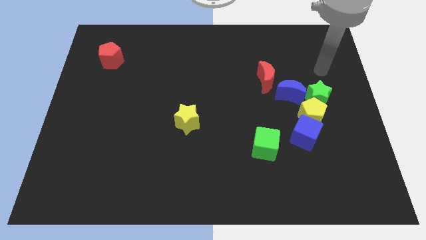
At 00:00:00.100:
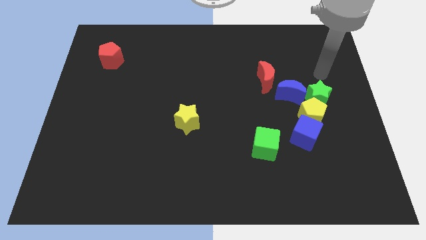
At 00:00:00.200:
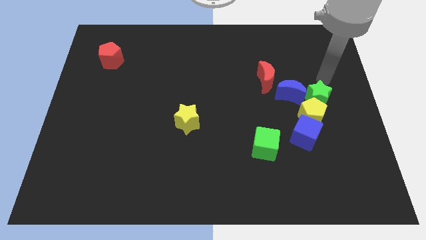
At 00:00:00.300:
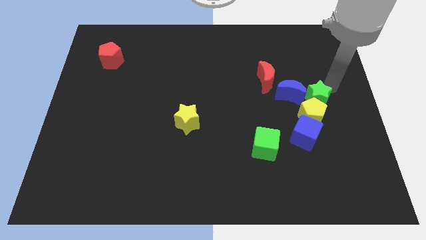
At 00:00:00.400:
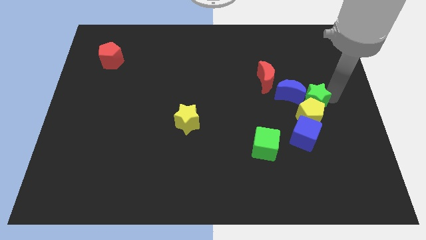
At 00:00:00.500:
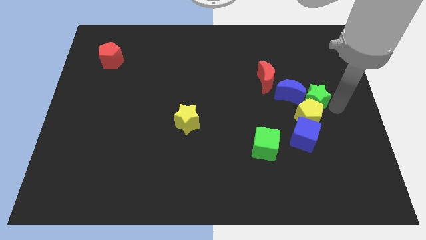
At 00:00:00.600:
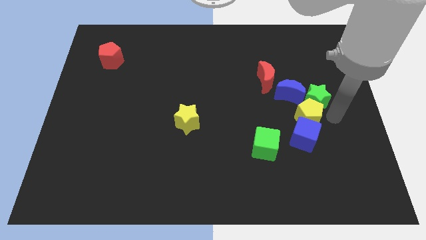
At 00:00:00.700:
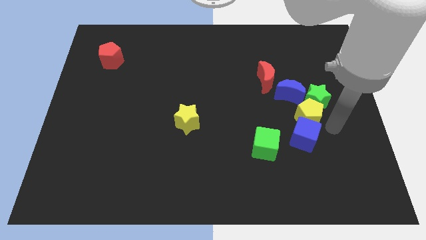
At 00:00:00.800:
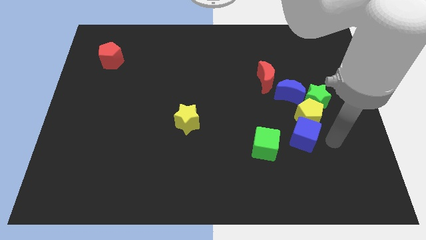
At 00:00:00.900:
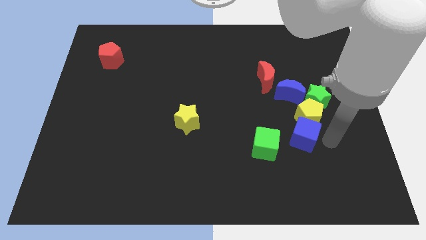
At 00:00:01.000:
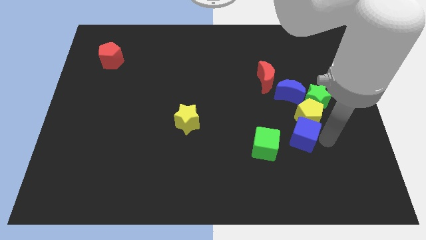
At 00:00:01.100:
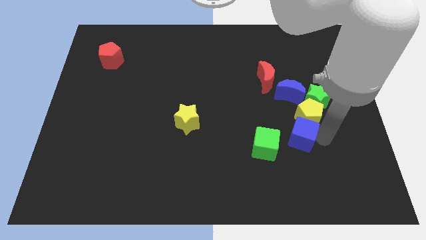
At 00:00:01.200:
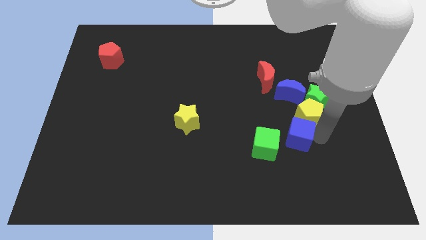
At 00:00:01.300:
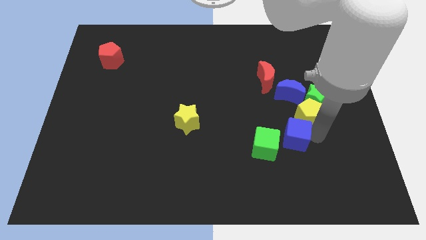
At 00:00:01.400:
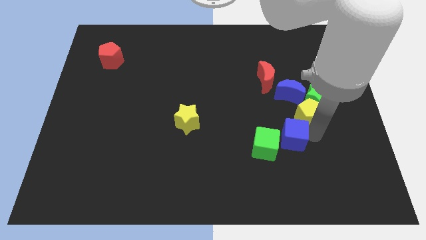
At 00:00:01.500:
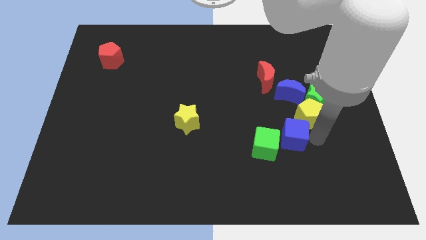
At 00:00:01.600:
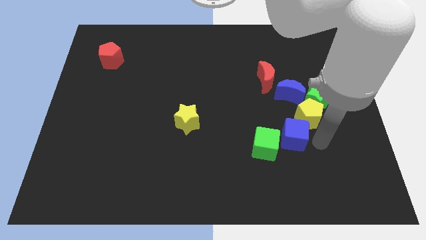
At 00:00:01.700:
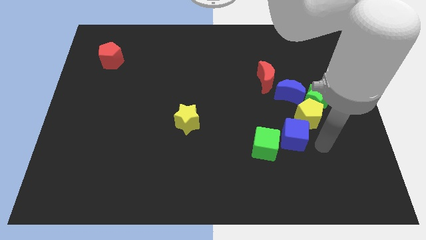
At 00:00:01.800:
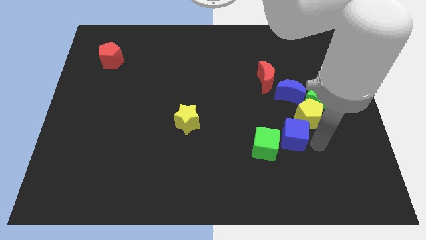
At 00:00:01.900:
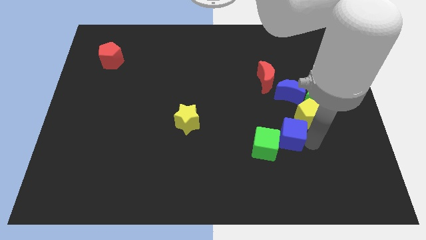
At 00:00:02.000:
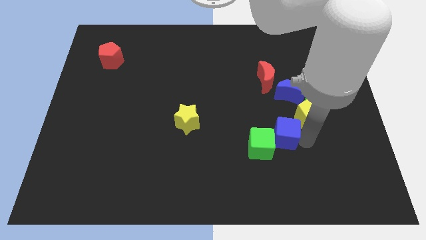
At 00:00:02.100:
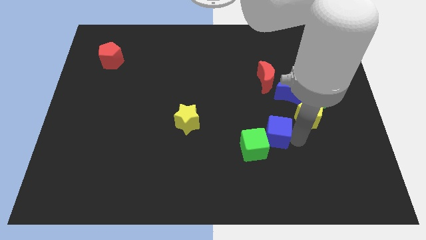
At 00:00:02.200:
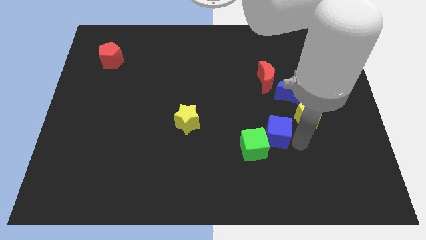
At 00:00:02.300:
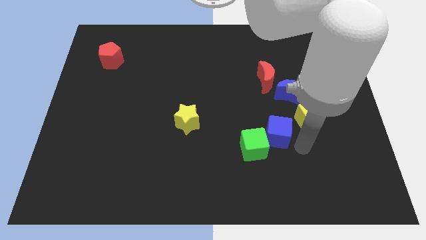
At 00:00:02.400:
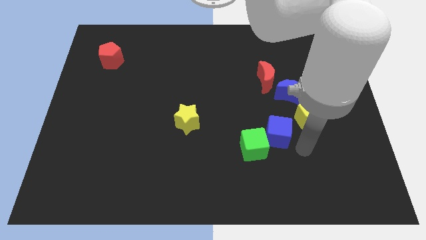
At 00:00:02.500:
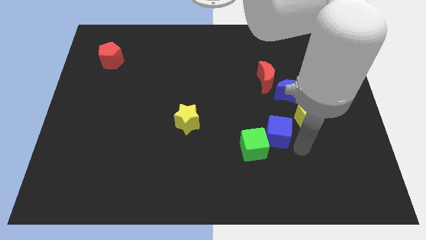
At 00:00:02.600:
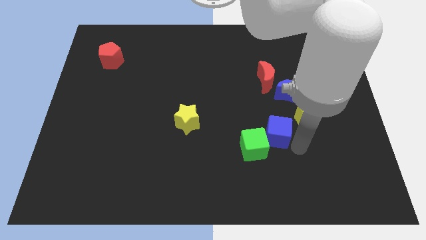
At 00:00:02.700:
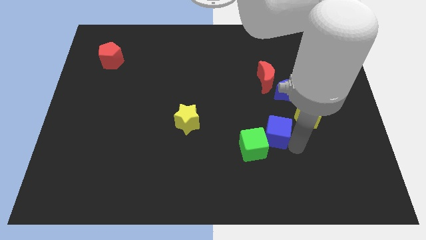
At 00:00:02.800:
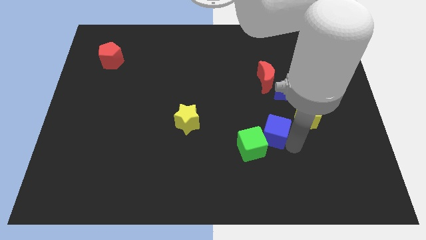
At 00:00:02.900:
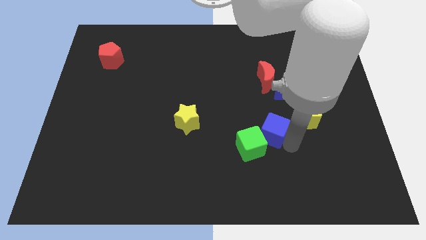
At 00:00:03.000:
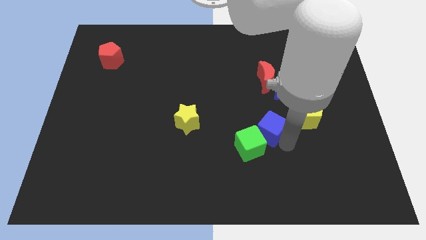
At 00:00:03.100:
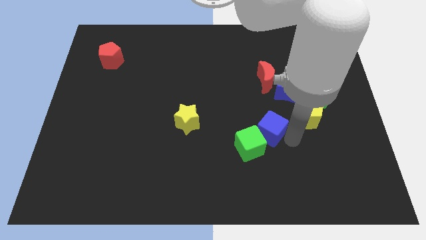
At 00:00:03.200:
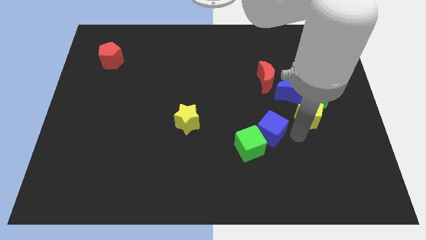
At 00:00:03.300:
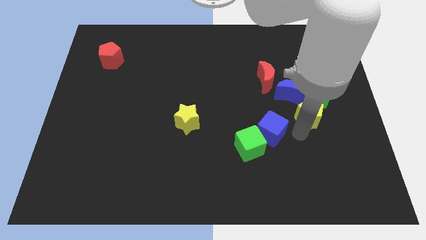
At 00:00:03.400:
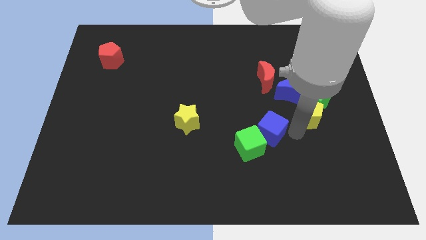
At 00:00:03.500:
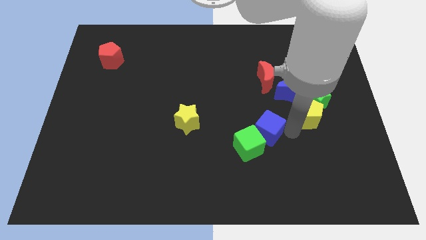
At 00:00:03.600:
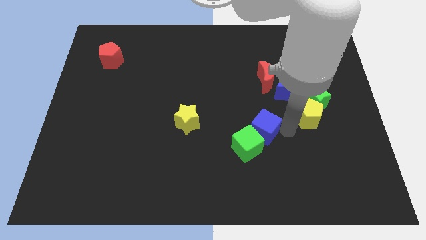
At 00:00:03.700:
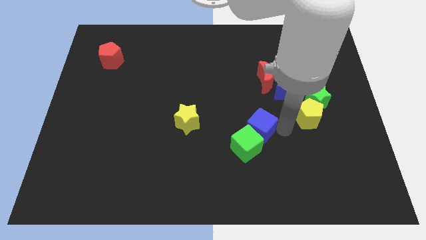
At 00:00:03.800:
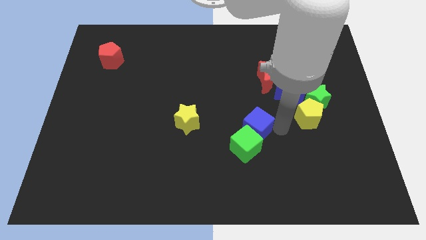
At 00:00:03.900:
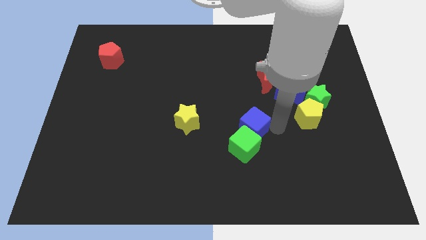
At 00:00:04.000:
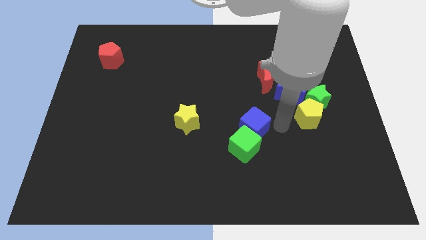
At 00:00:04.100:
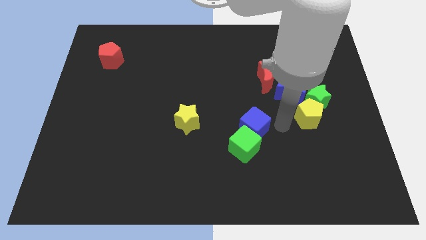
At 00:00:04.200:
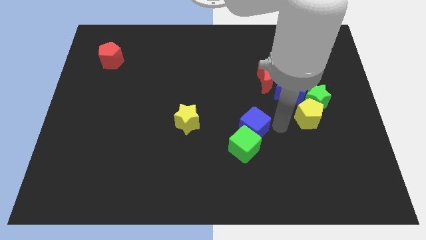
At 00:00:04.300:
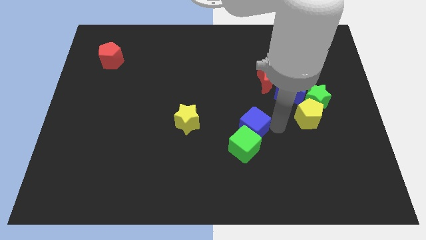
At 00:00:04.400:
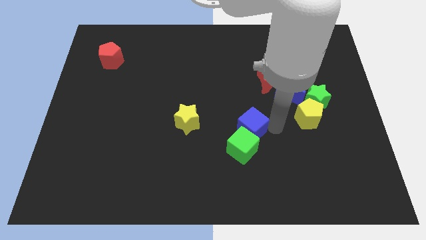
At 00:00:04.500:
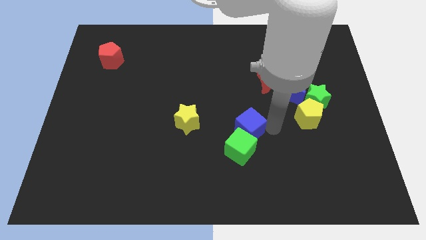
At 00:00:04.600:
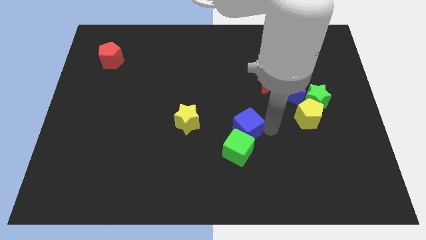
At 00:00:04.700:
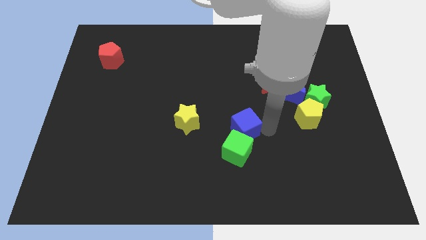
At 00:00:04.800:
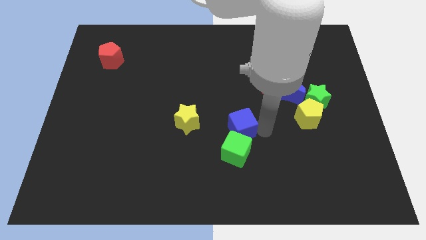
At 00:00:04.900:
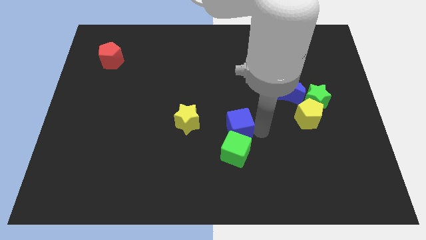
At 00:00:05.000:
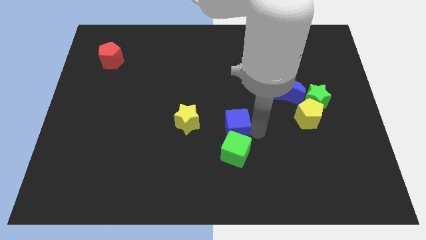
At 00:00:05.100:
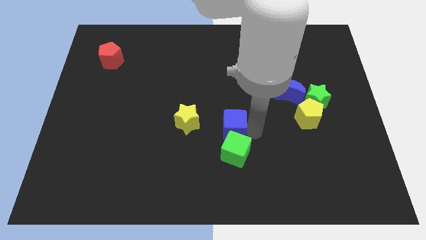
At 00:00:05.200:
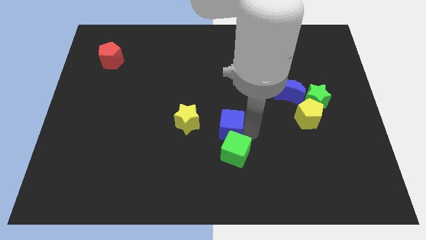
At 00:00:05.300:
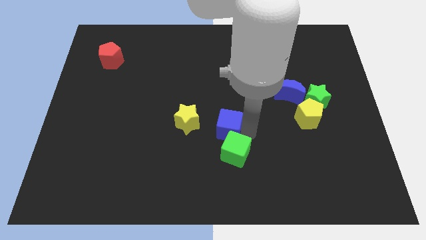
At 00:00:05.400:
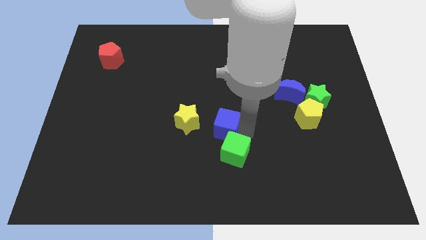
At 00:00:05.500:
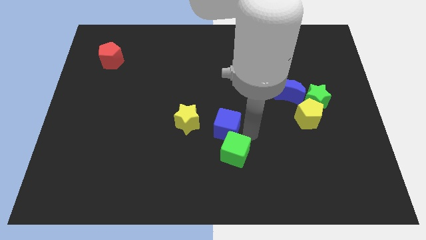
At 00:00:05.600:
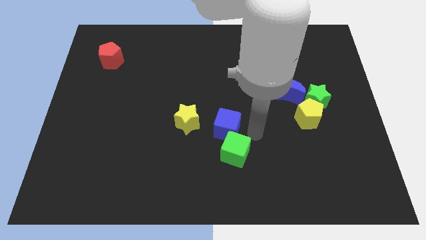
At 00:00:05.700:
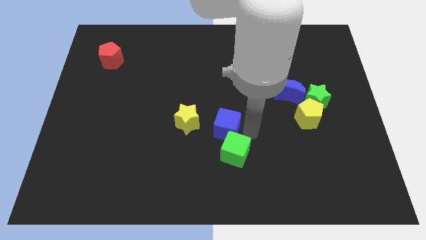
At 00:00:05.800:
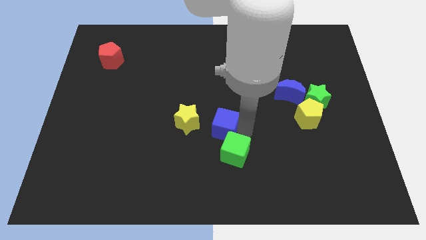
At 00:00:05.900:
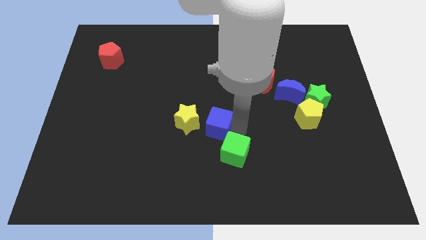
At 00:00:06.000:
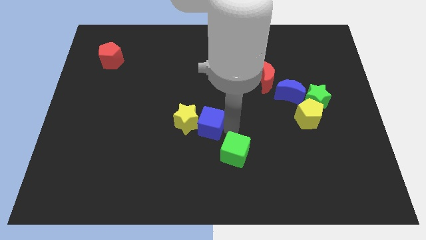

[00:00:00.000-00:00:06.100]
move the blue cube next to the yellow star
